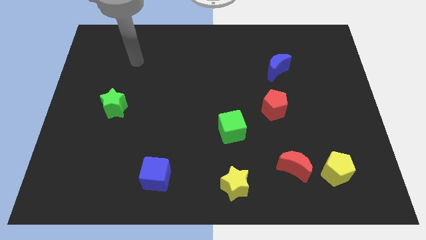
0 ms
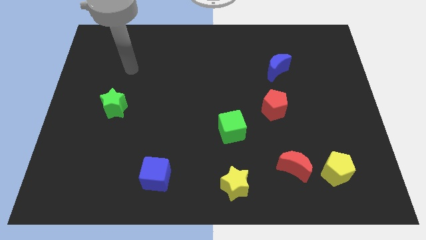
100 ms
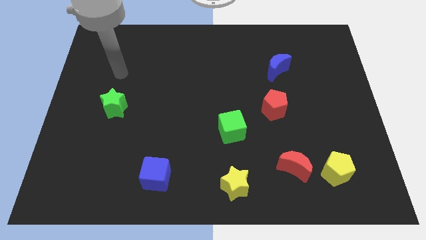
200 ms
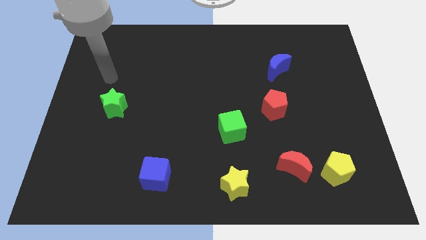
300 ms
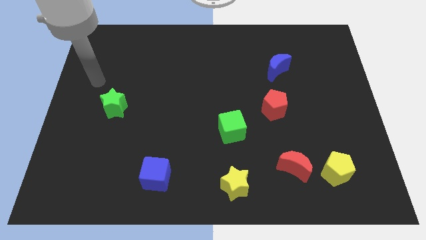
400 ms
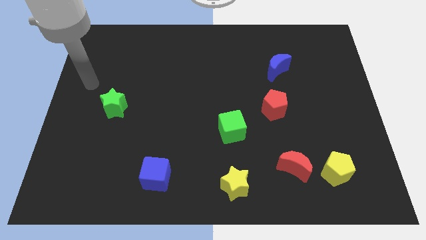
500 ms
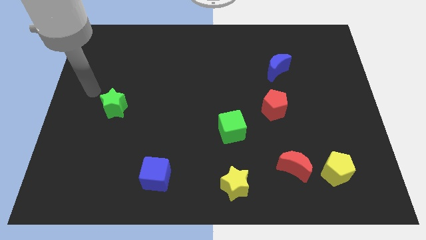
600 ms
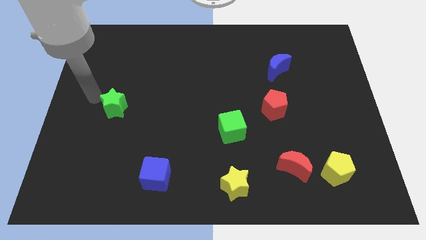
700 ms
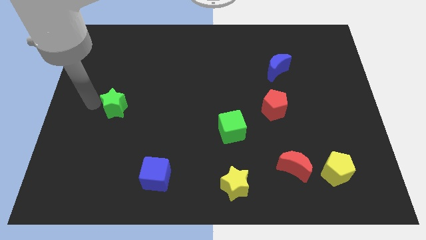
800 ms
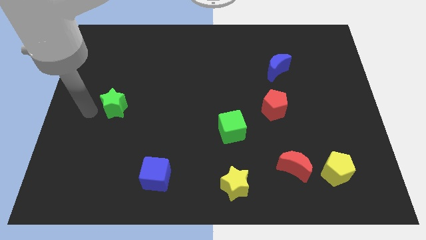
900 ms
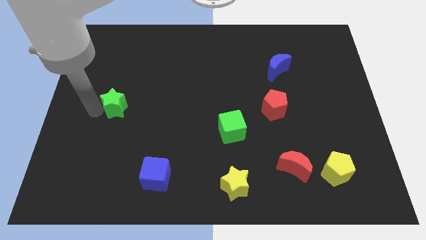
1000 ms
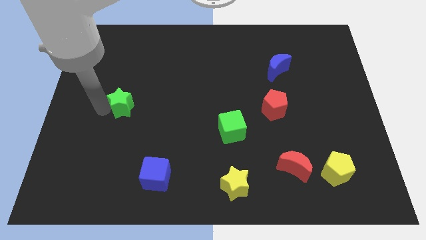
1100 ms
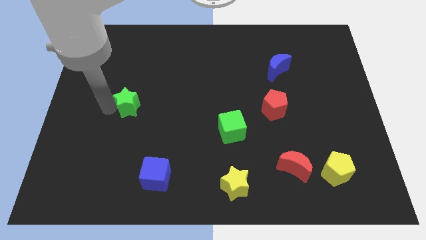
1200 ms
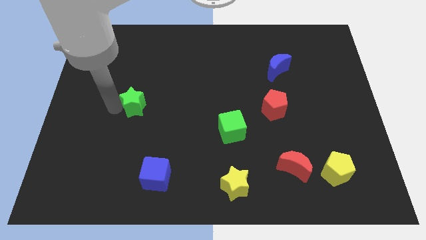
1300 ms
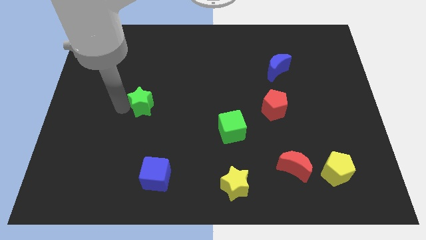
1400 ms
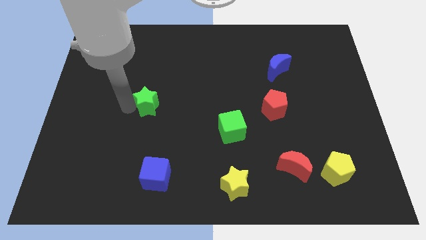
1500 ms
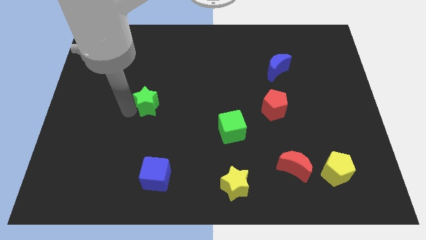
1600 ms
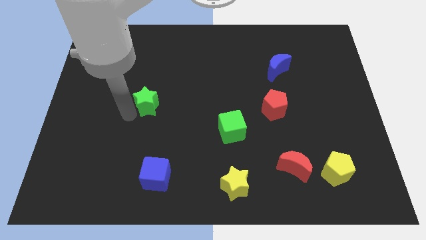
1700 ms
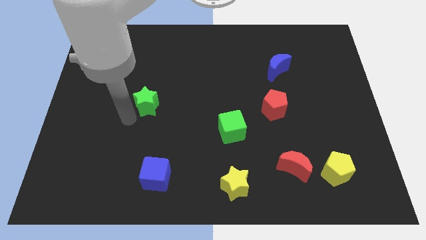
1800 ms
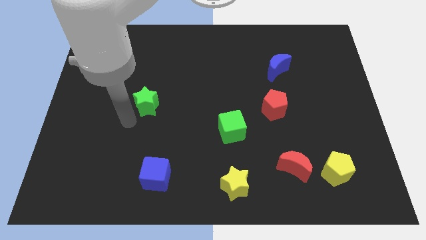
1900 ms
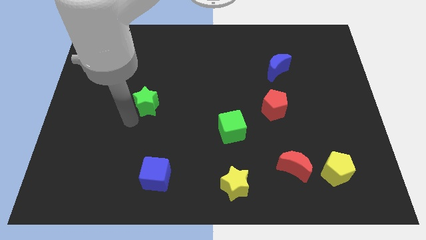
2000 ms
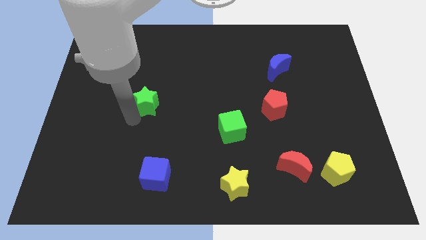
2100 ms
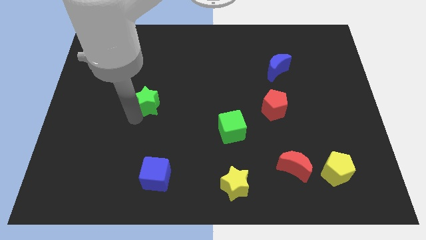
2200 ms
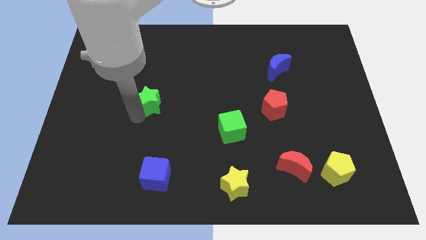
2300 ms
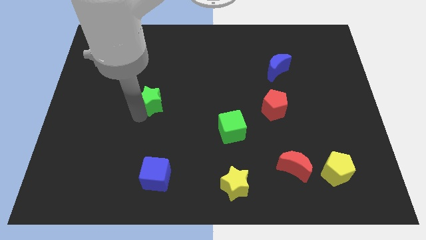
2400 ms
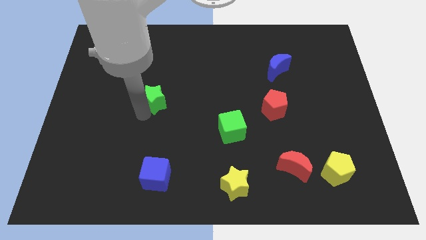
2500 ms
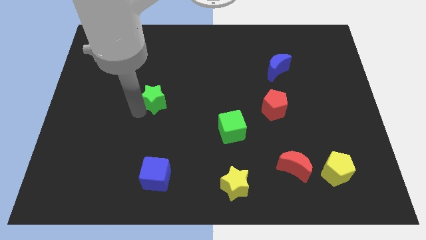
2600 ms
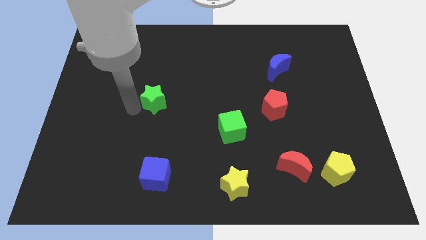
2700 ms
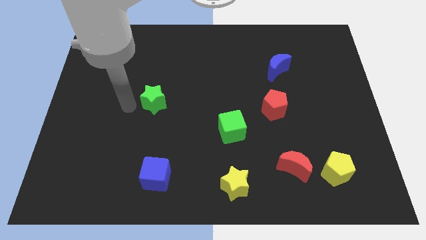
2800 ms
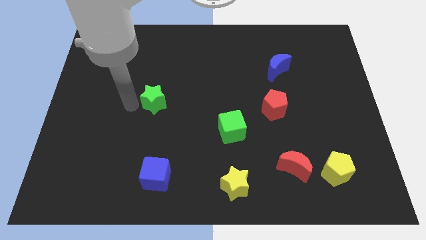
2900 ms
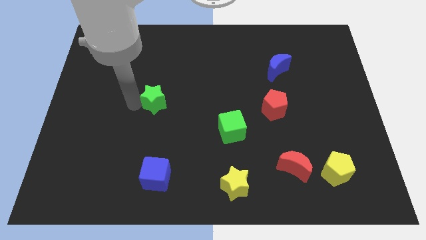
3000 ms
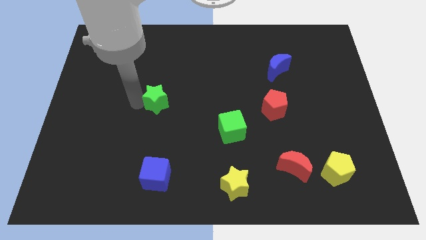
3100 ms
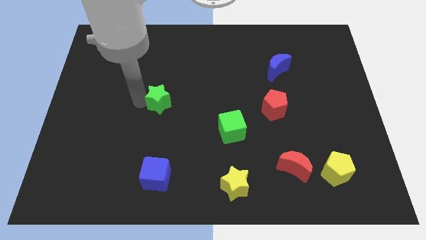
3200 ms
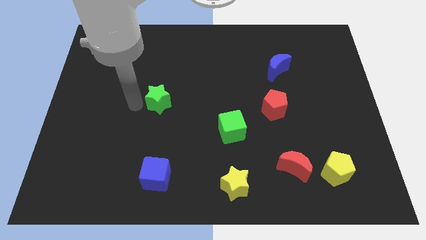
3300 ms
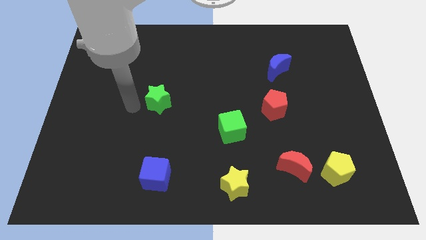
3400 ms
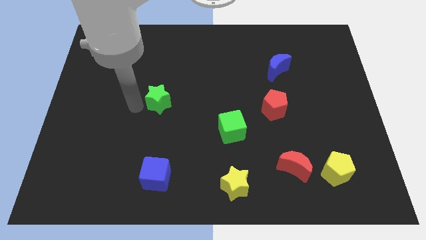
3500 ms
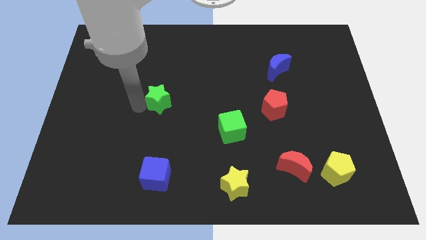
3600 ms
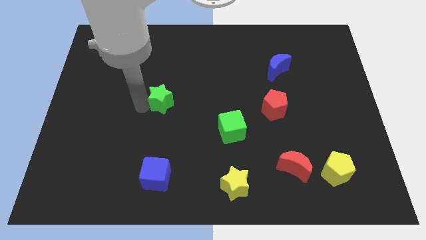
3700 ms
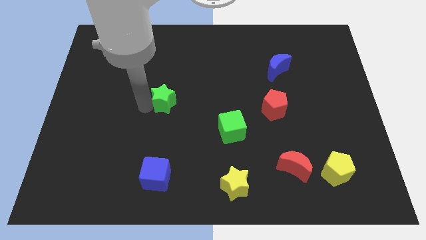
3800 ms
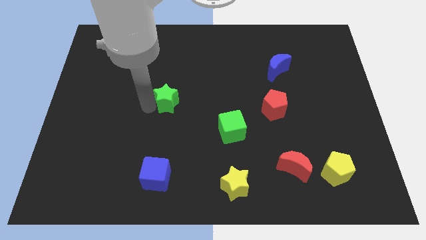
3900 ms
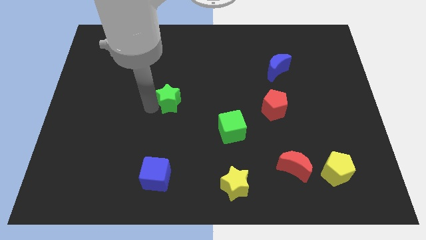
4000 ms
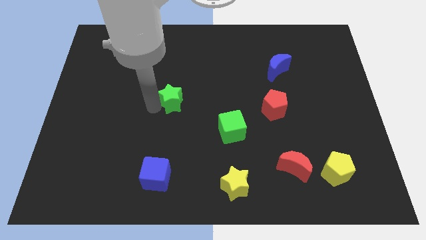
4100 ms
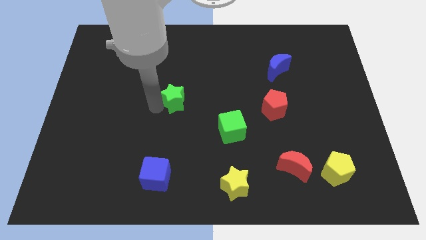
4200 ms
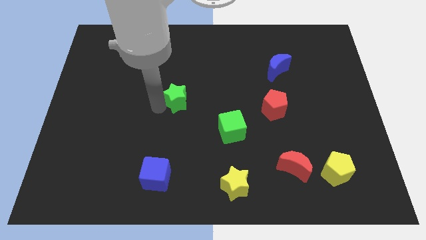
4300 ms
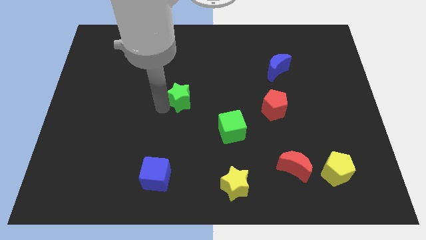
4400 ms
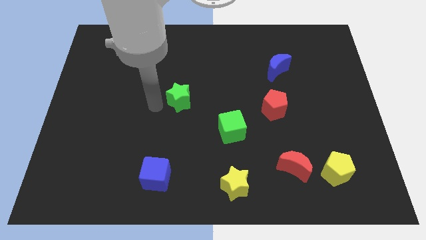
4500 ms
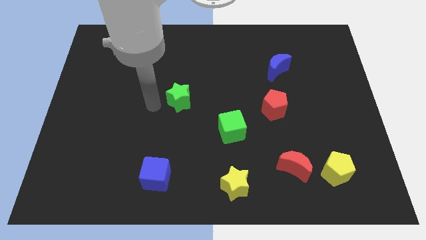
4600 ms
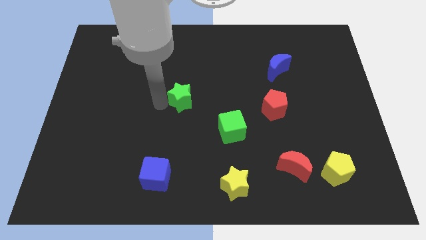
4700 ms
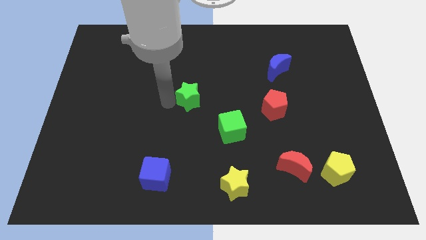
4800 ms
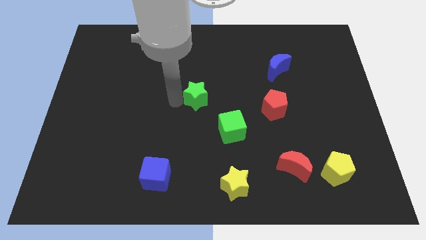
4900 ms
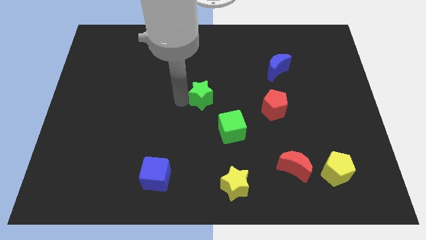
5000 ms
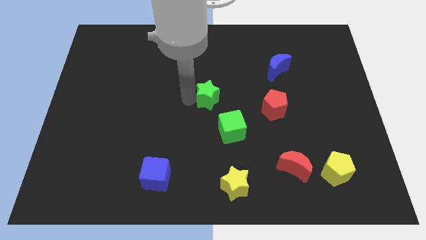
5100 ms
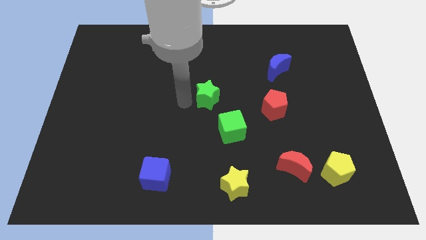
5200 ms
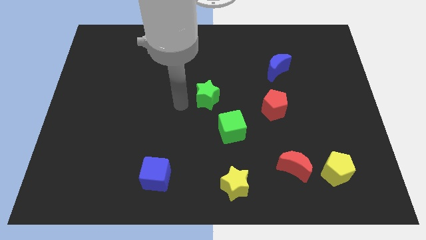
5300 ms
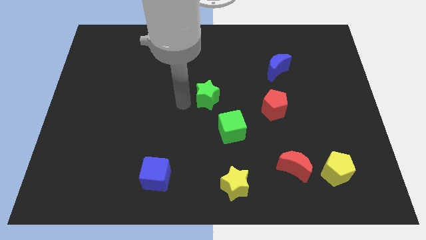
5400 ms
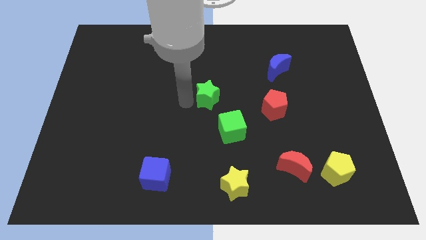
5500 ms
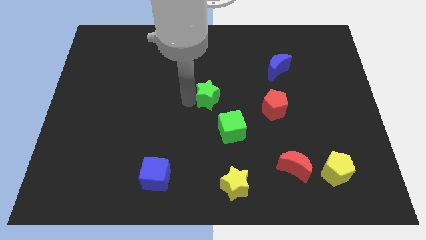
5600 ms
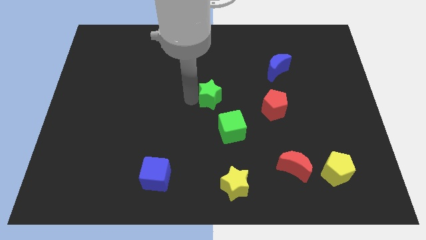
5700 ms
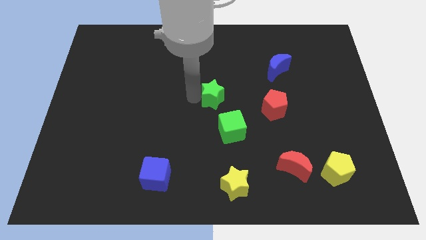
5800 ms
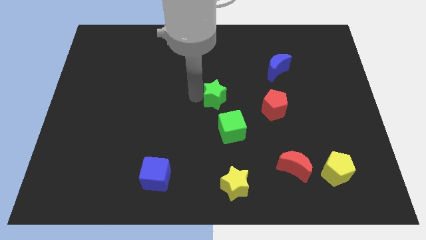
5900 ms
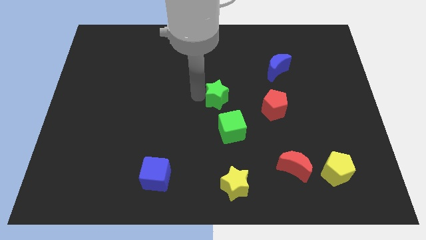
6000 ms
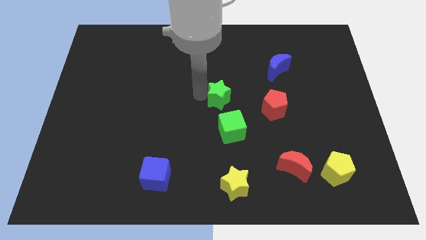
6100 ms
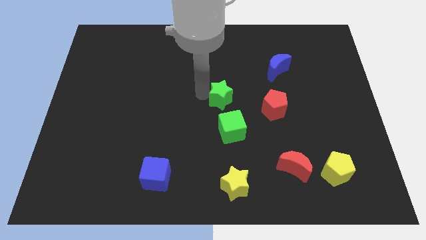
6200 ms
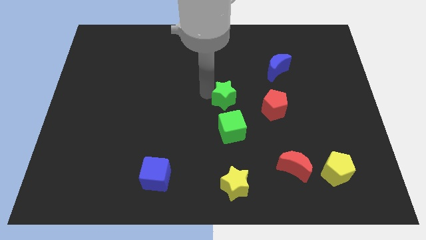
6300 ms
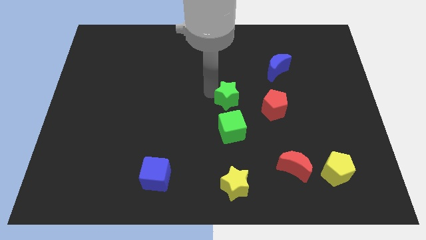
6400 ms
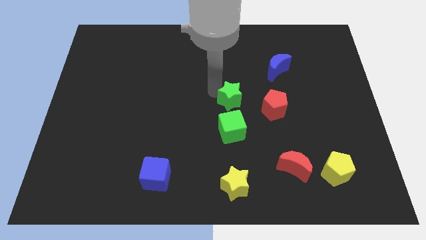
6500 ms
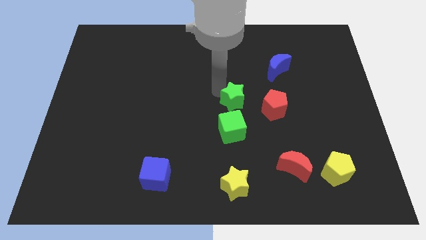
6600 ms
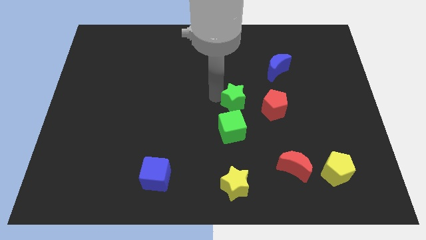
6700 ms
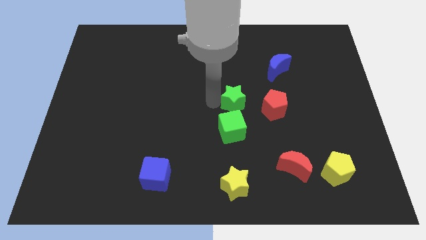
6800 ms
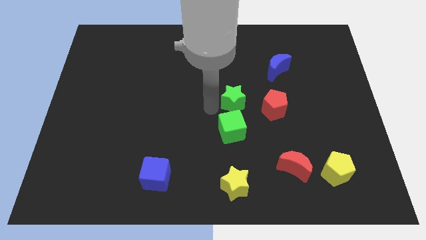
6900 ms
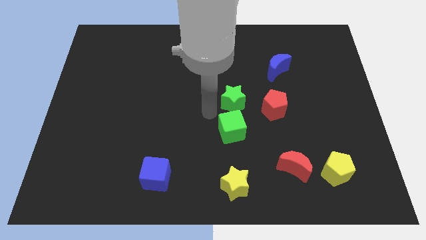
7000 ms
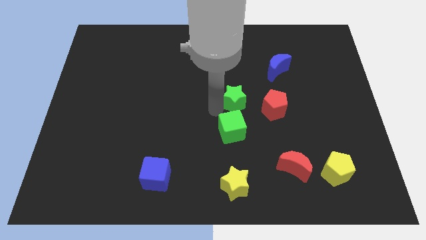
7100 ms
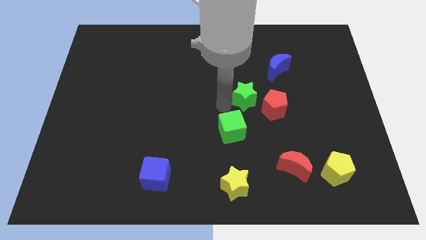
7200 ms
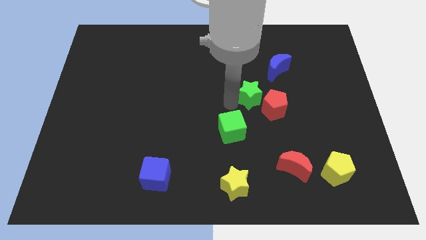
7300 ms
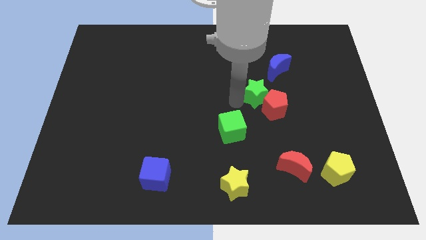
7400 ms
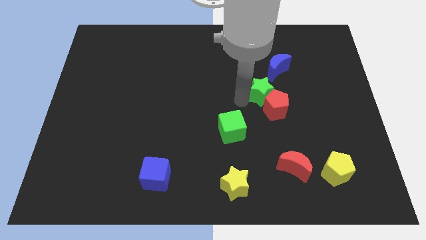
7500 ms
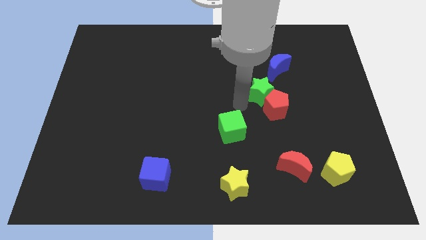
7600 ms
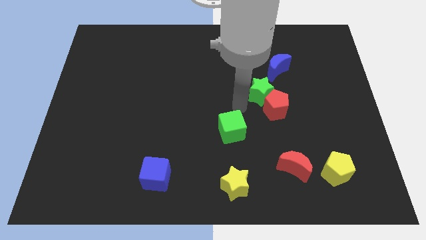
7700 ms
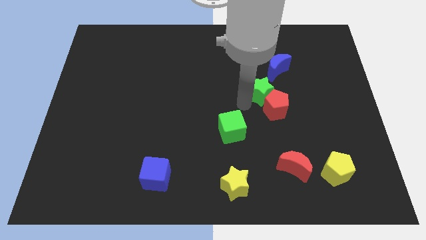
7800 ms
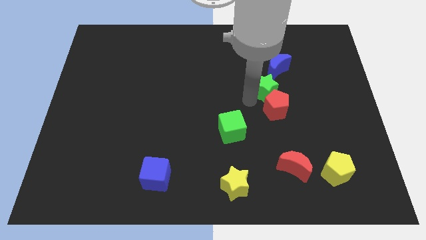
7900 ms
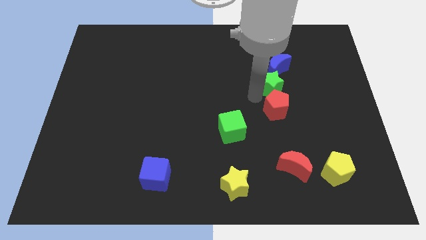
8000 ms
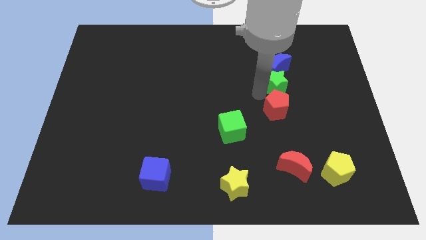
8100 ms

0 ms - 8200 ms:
slide the green star close to the blue moon
